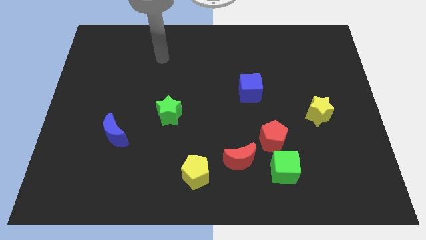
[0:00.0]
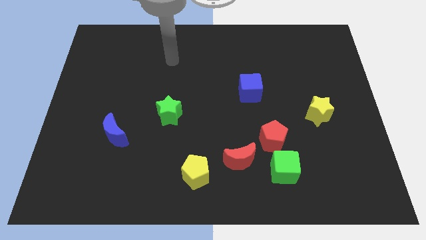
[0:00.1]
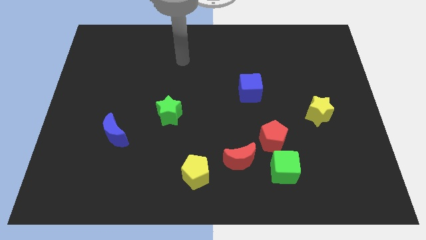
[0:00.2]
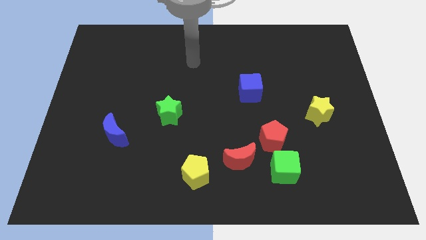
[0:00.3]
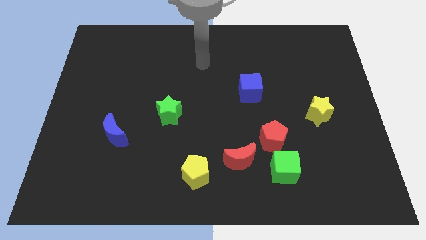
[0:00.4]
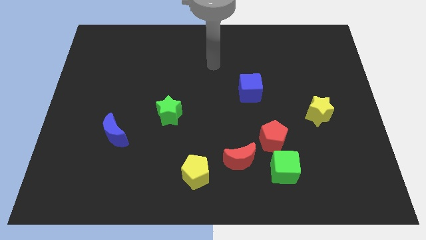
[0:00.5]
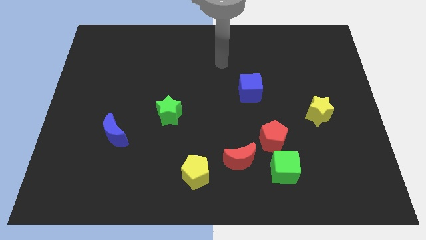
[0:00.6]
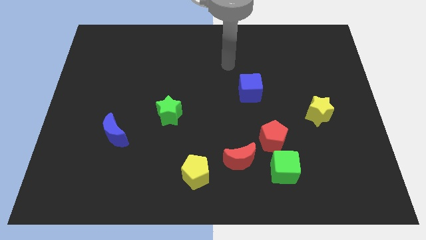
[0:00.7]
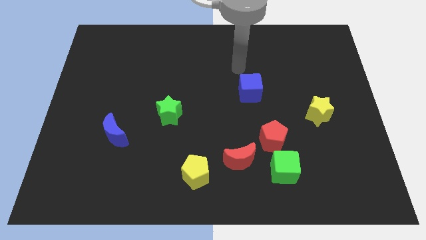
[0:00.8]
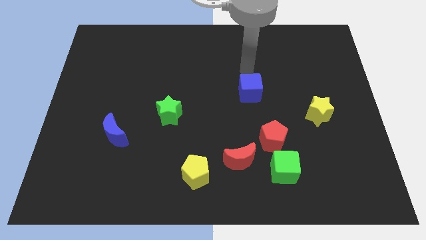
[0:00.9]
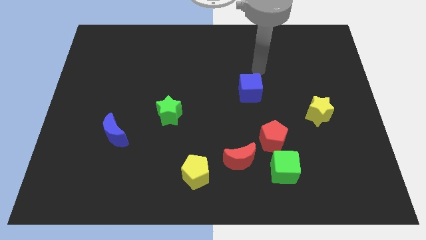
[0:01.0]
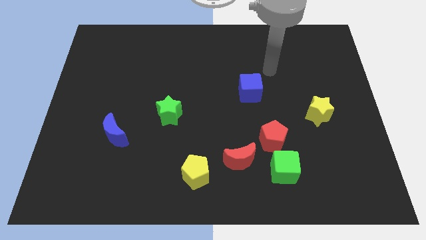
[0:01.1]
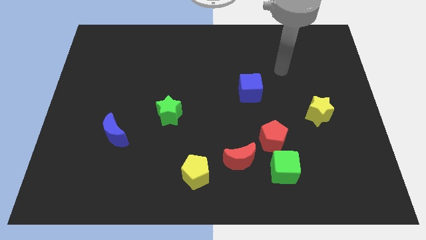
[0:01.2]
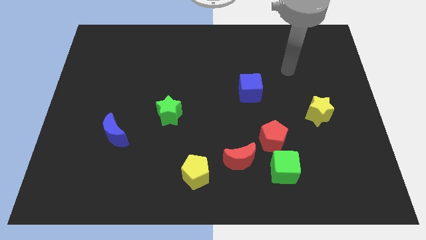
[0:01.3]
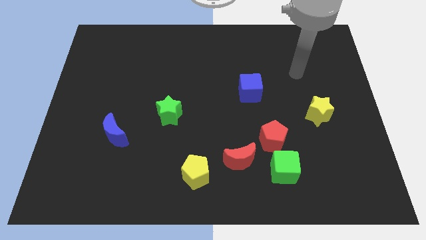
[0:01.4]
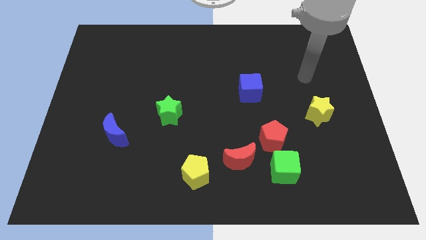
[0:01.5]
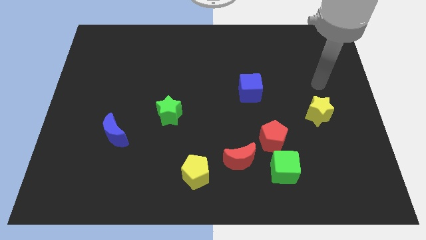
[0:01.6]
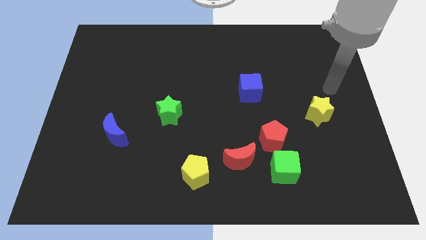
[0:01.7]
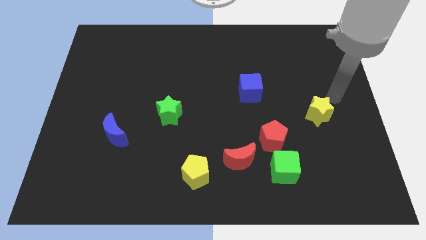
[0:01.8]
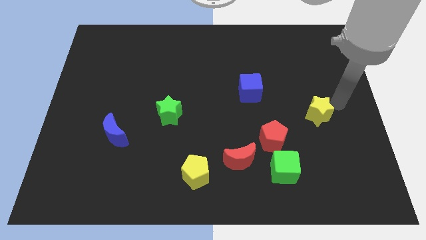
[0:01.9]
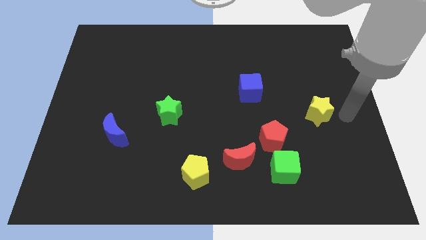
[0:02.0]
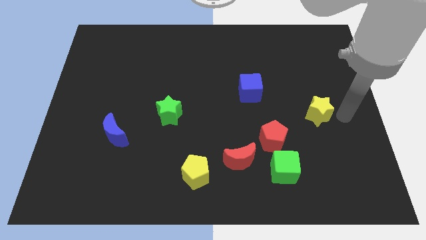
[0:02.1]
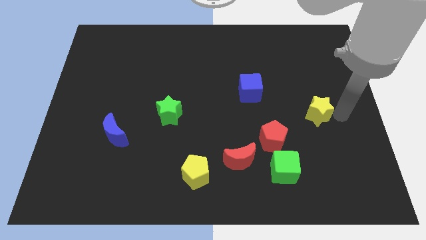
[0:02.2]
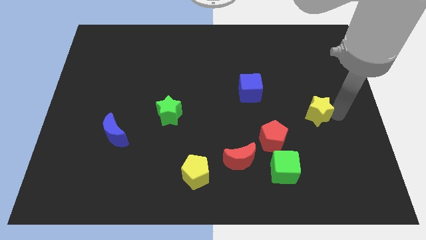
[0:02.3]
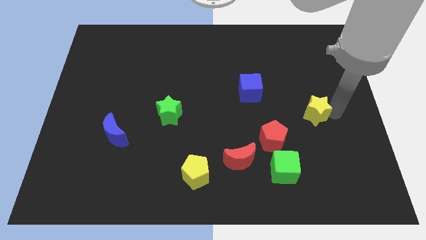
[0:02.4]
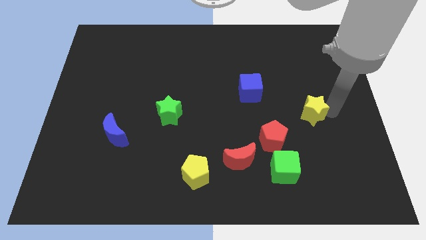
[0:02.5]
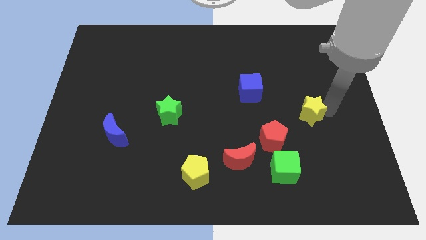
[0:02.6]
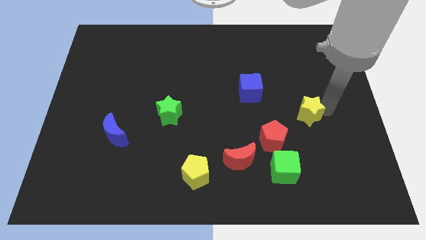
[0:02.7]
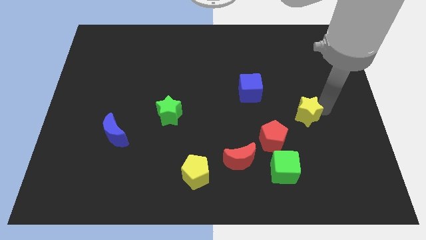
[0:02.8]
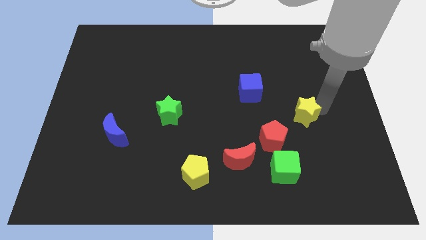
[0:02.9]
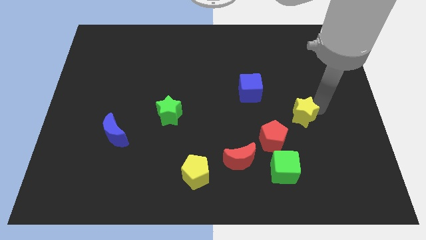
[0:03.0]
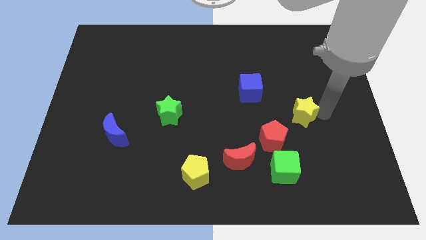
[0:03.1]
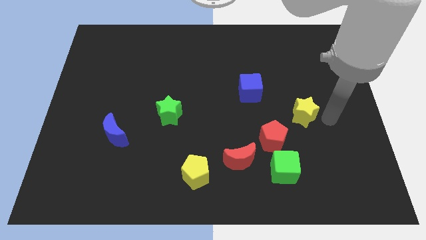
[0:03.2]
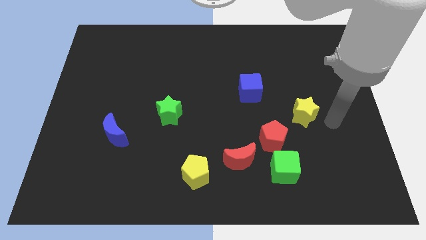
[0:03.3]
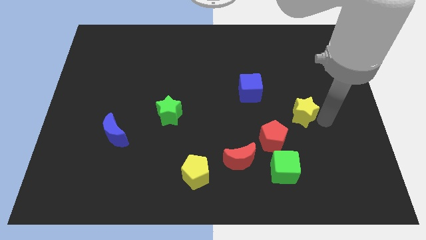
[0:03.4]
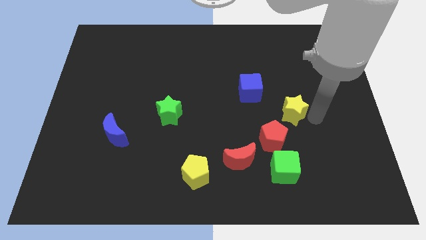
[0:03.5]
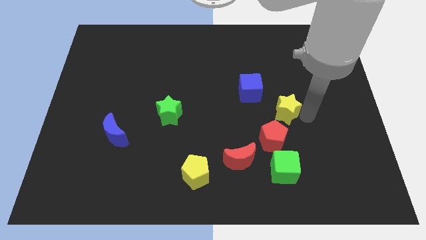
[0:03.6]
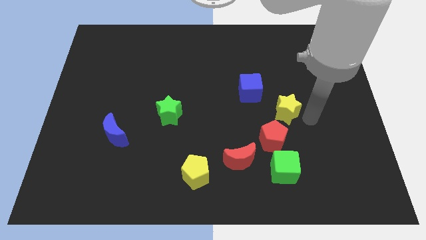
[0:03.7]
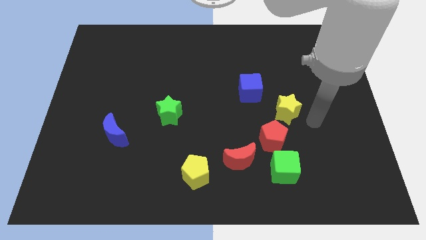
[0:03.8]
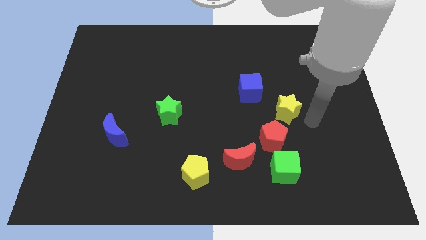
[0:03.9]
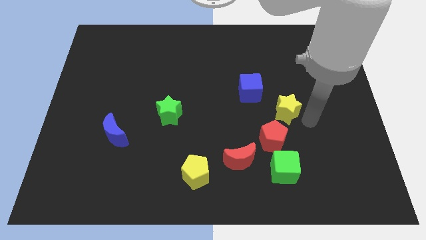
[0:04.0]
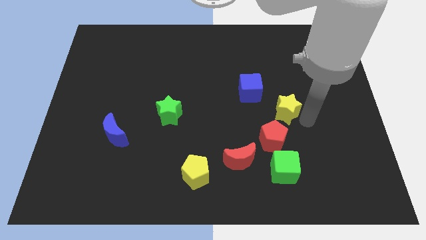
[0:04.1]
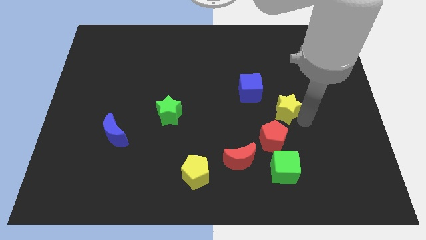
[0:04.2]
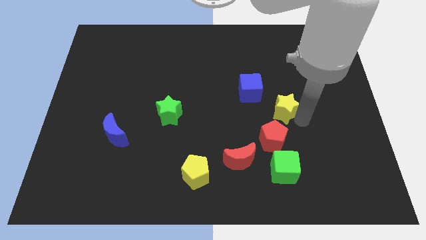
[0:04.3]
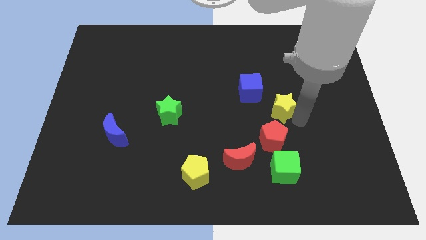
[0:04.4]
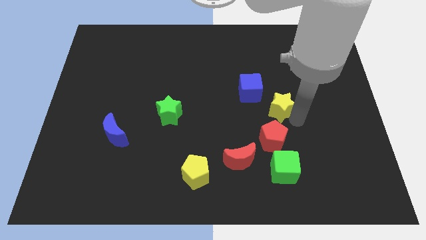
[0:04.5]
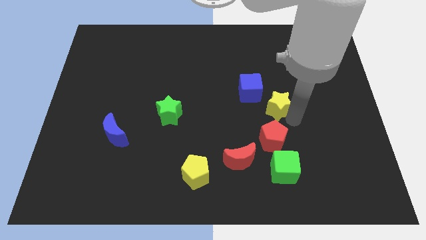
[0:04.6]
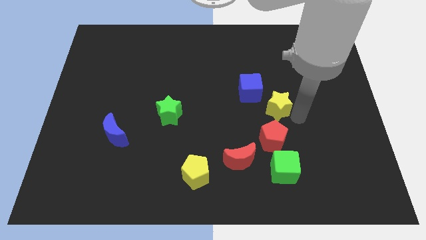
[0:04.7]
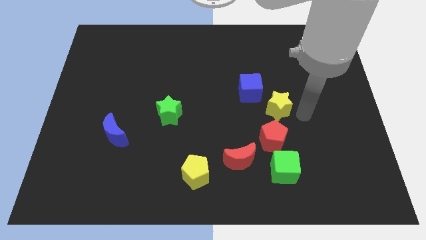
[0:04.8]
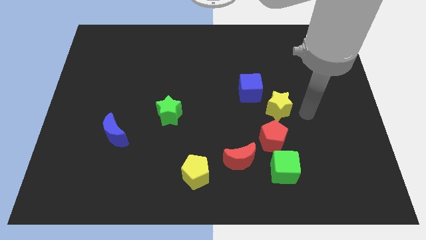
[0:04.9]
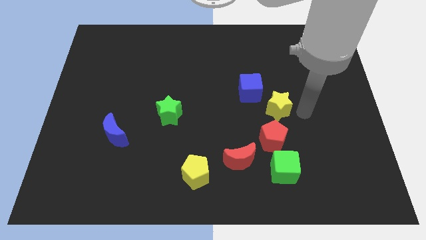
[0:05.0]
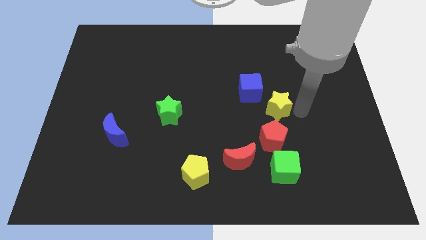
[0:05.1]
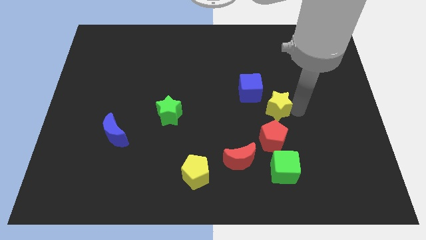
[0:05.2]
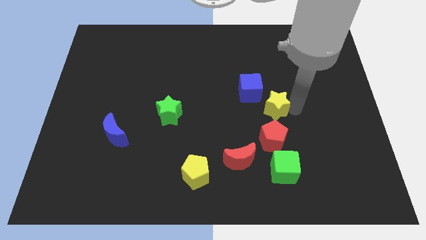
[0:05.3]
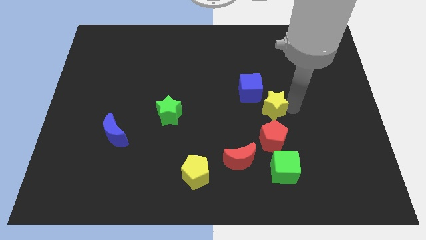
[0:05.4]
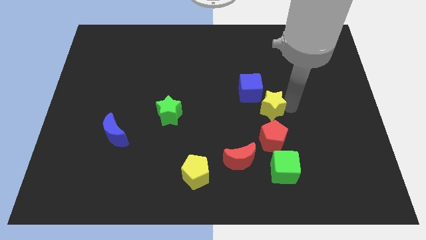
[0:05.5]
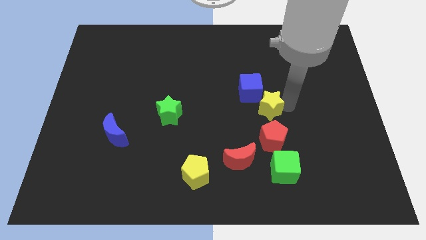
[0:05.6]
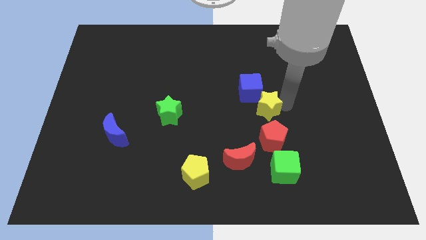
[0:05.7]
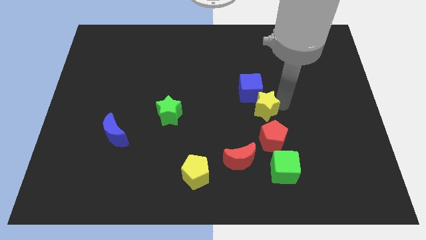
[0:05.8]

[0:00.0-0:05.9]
push the yellow star to the center of the board
